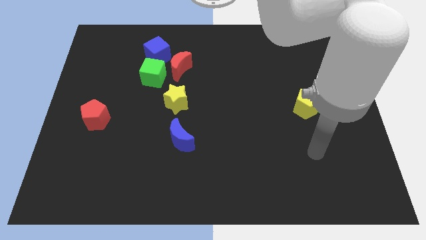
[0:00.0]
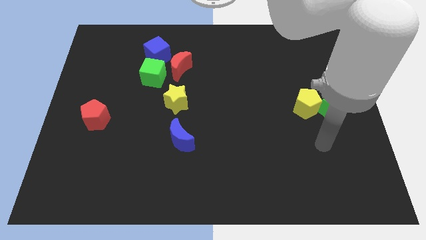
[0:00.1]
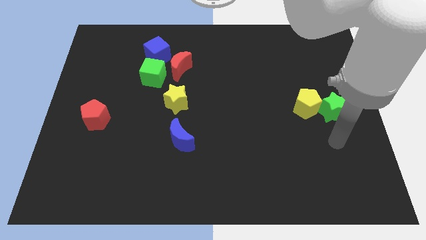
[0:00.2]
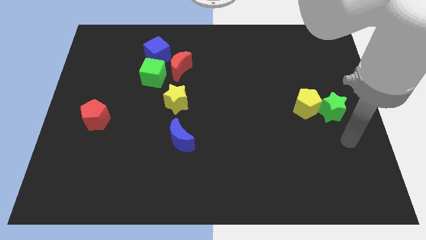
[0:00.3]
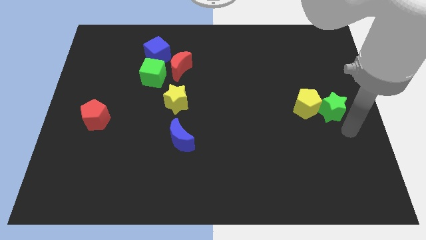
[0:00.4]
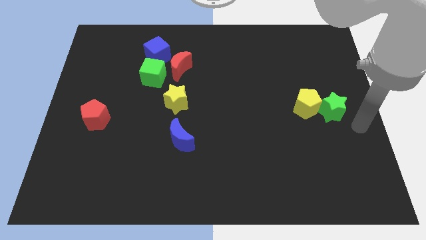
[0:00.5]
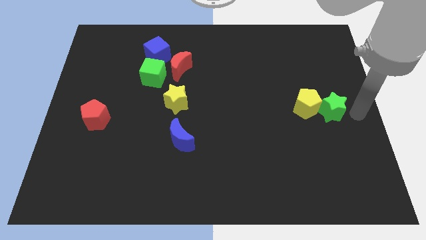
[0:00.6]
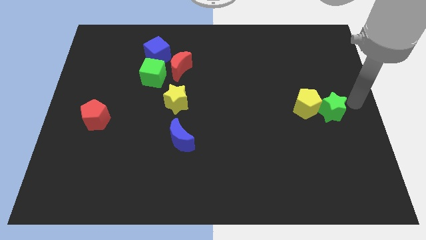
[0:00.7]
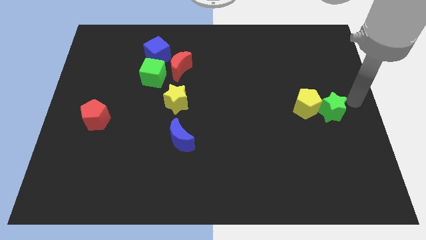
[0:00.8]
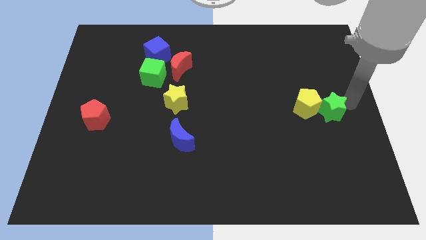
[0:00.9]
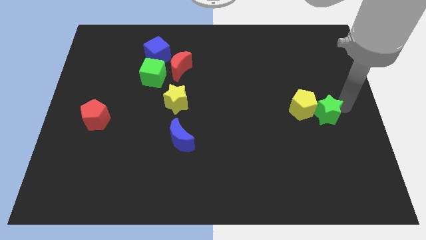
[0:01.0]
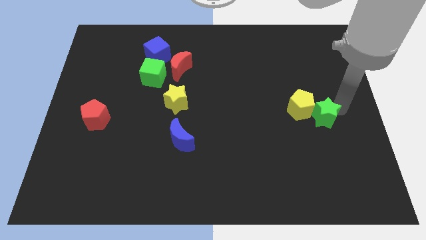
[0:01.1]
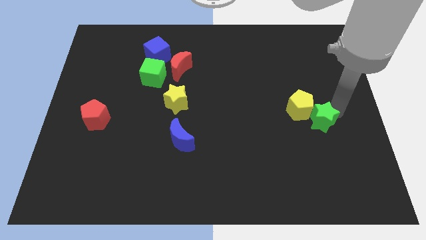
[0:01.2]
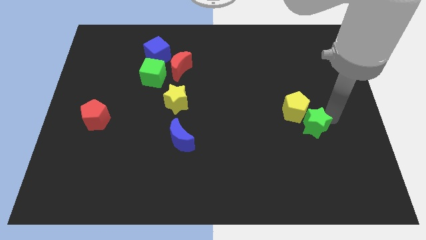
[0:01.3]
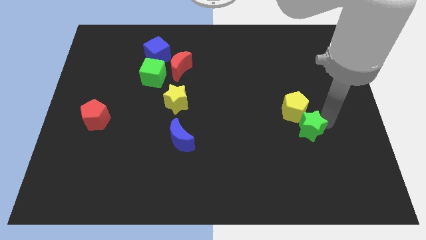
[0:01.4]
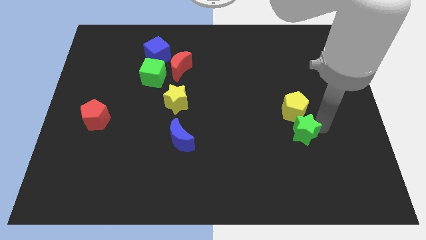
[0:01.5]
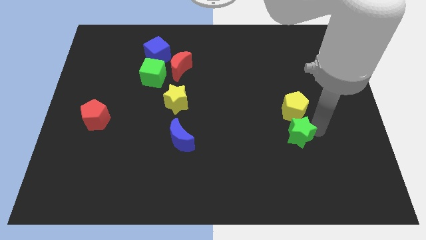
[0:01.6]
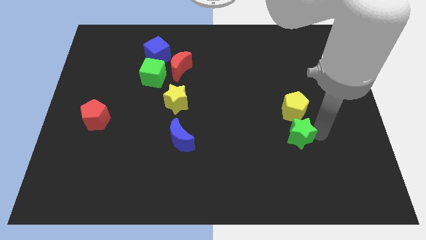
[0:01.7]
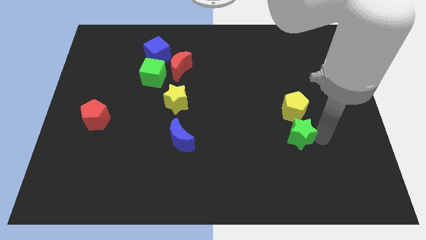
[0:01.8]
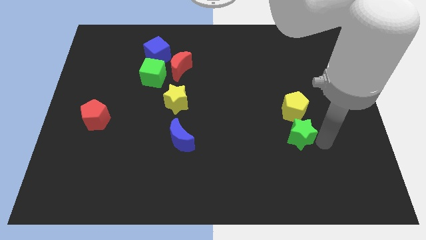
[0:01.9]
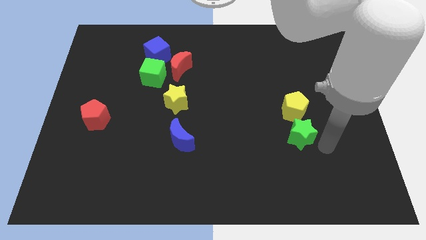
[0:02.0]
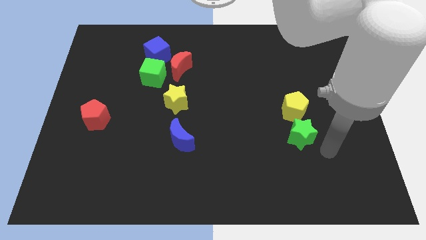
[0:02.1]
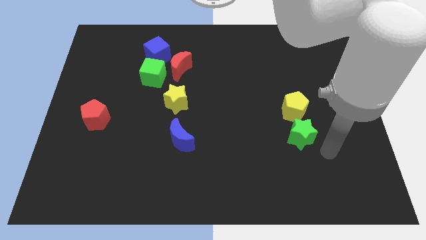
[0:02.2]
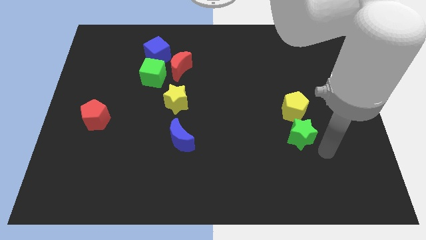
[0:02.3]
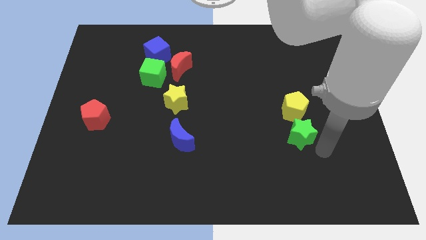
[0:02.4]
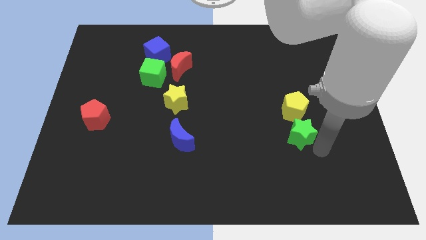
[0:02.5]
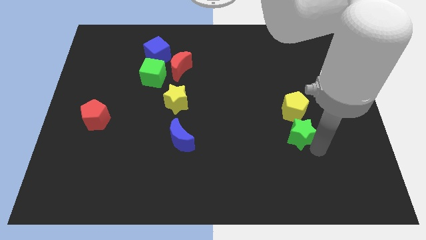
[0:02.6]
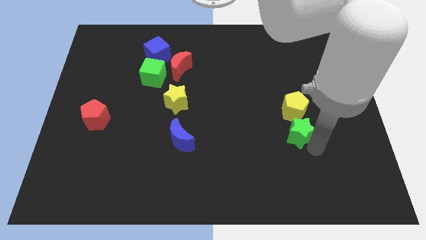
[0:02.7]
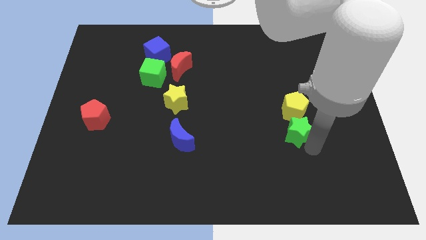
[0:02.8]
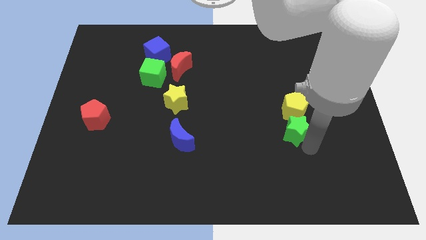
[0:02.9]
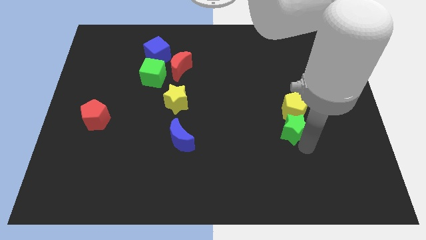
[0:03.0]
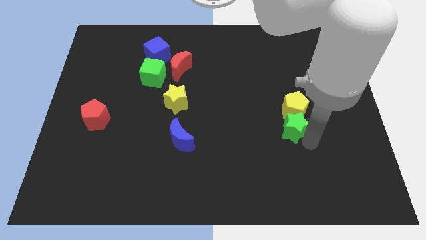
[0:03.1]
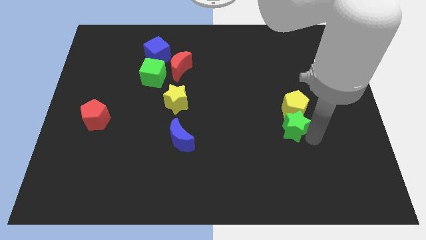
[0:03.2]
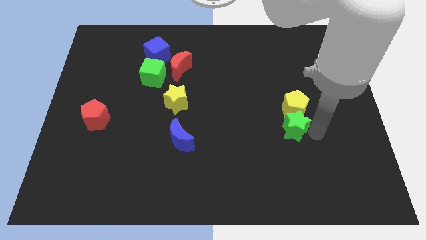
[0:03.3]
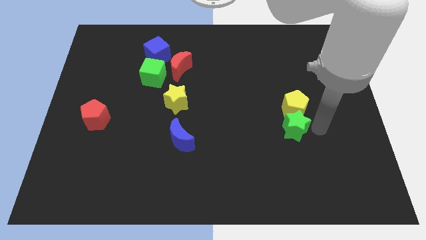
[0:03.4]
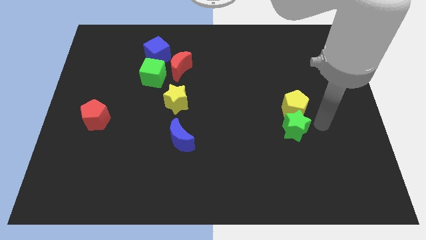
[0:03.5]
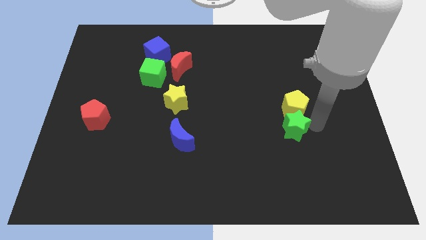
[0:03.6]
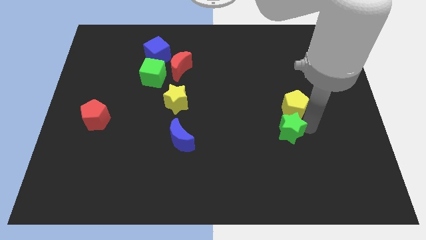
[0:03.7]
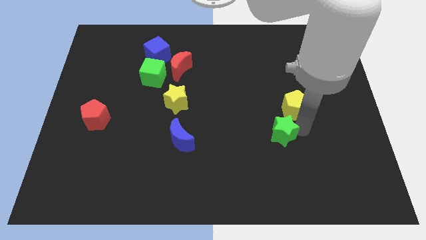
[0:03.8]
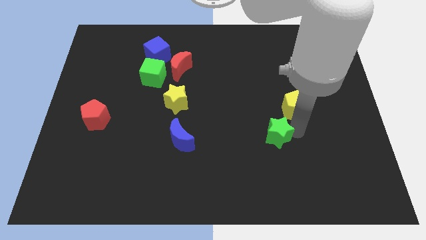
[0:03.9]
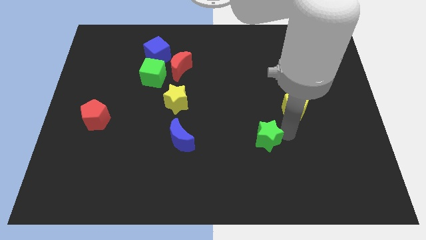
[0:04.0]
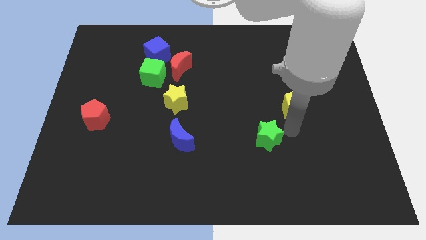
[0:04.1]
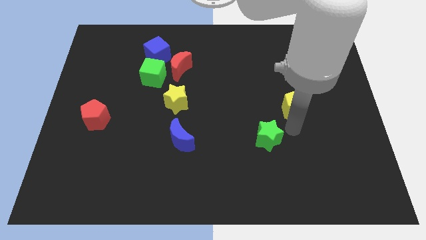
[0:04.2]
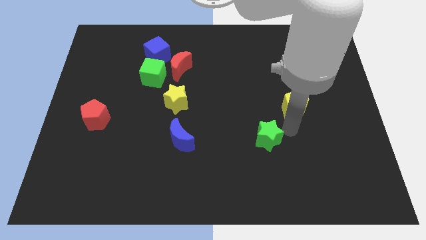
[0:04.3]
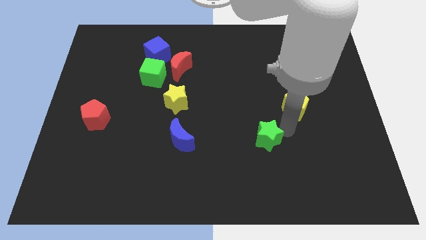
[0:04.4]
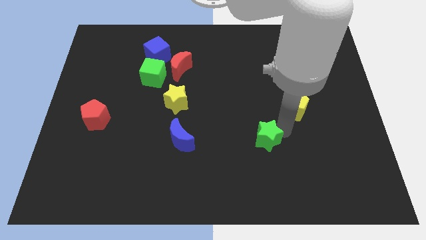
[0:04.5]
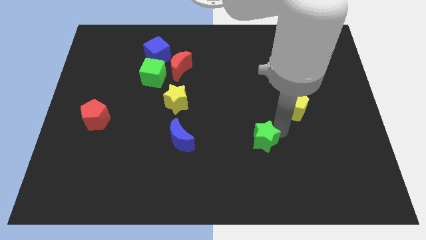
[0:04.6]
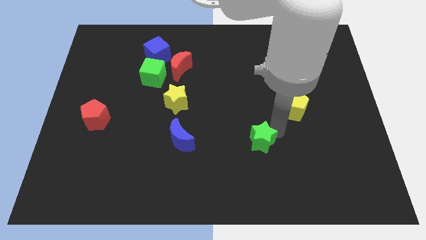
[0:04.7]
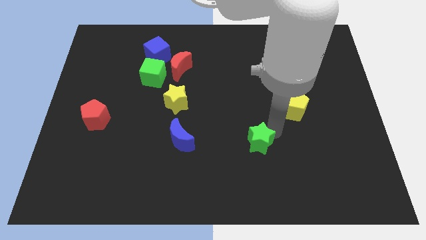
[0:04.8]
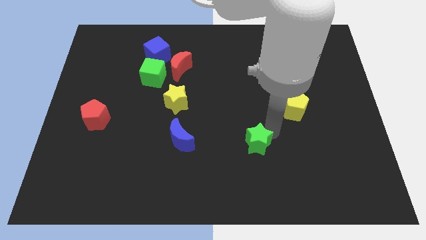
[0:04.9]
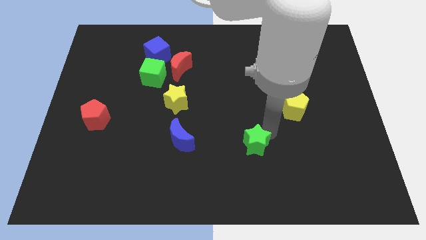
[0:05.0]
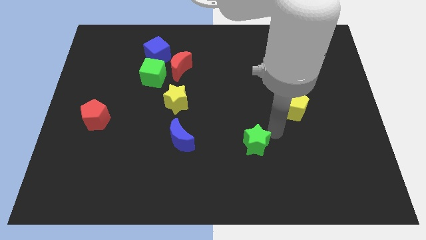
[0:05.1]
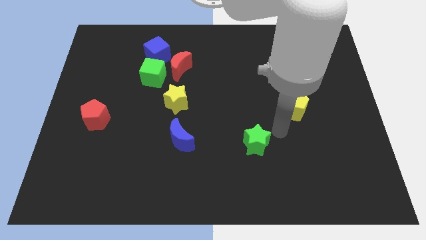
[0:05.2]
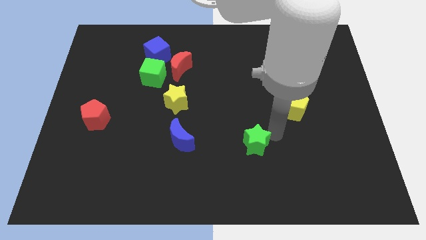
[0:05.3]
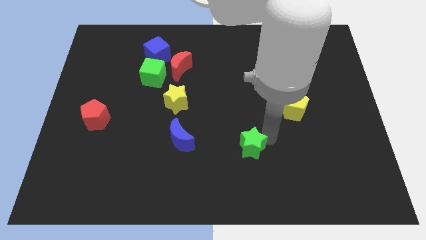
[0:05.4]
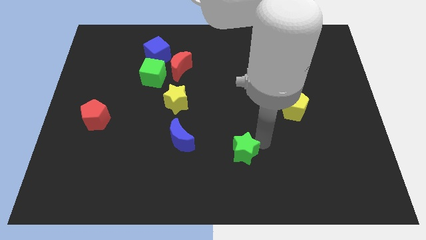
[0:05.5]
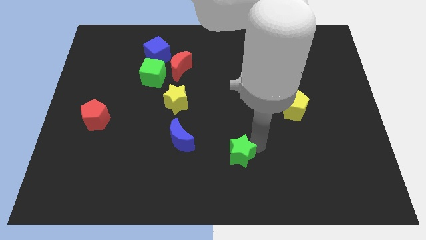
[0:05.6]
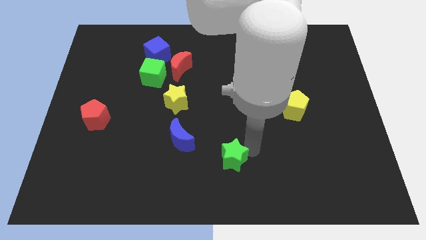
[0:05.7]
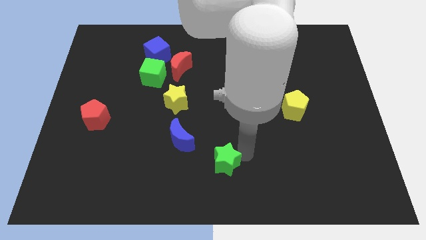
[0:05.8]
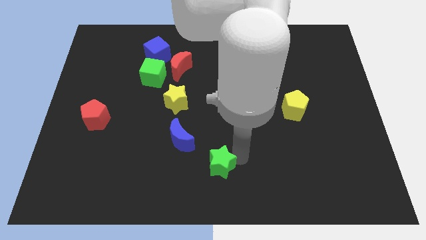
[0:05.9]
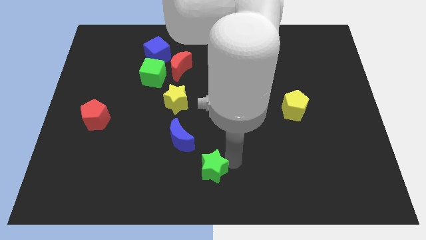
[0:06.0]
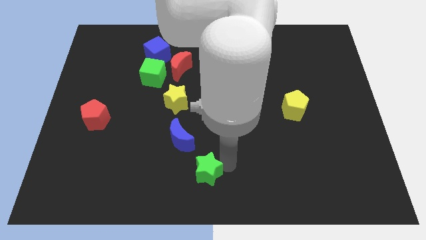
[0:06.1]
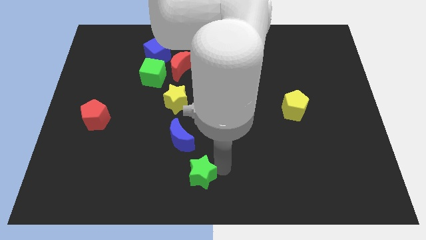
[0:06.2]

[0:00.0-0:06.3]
put the green star to the bottom of the blue moon

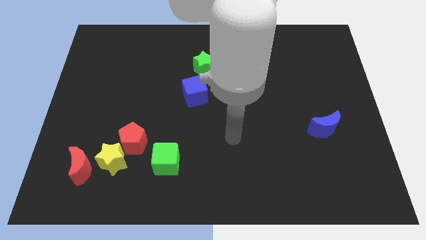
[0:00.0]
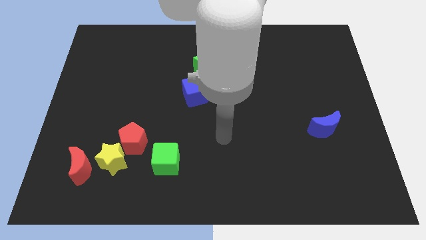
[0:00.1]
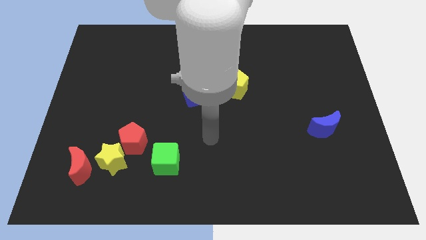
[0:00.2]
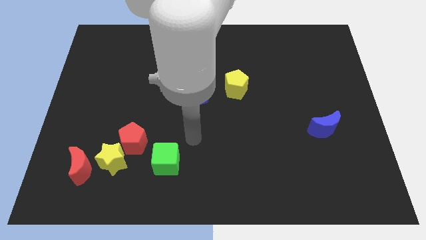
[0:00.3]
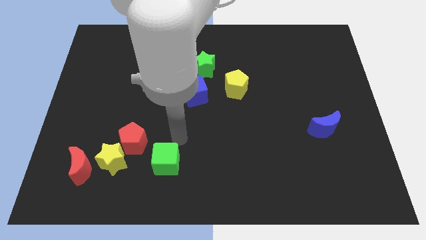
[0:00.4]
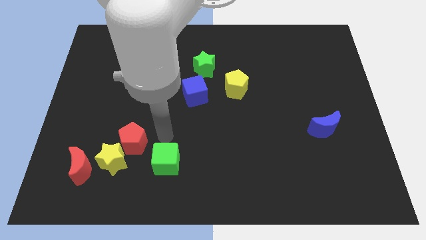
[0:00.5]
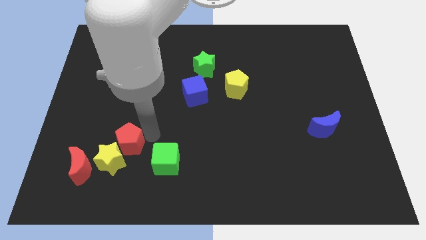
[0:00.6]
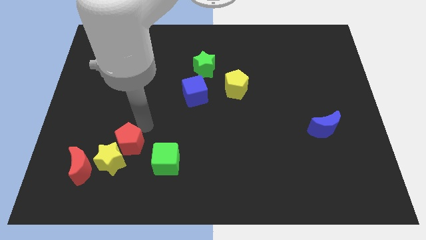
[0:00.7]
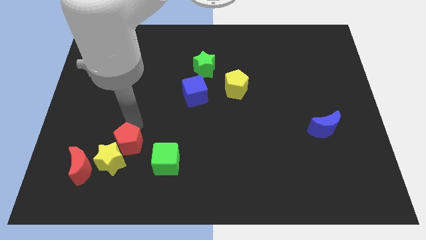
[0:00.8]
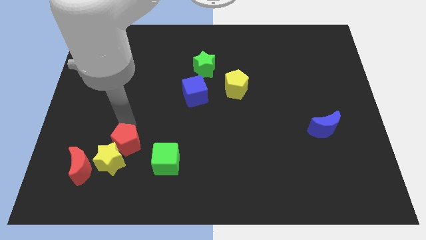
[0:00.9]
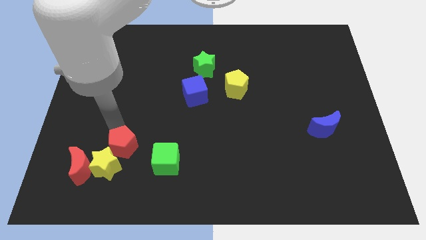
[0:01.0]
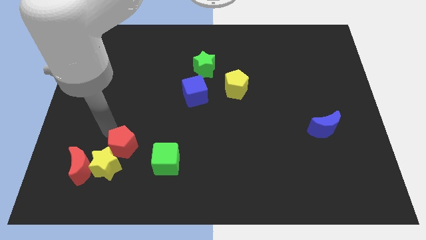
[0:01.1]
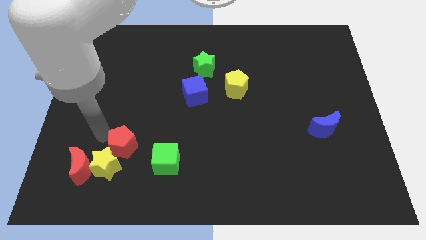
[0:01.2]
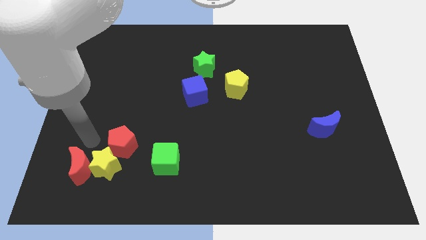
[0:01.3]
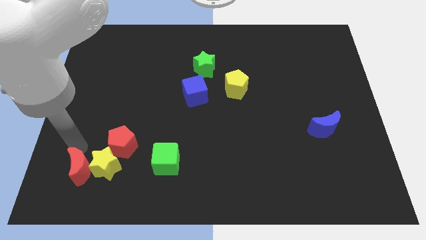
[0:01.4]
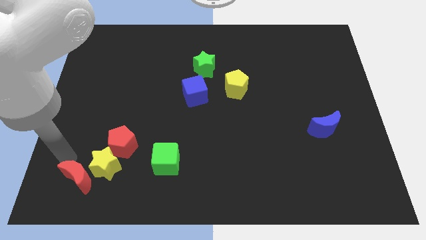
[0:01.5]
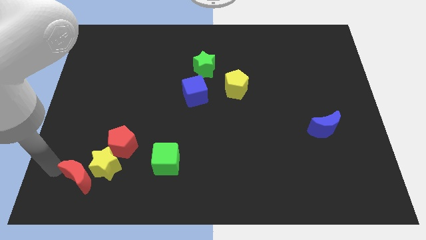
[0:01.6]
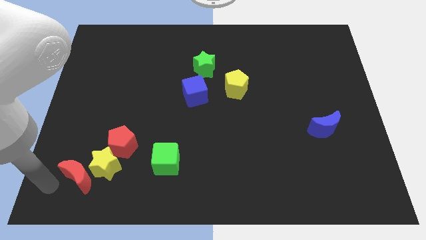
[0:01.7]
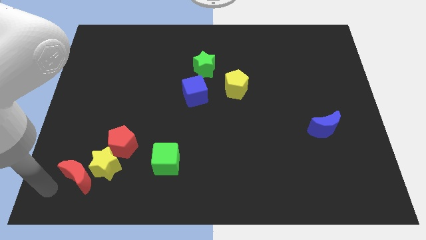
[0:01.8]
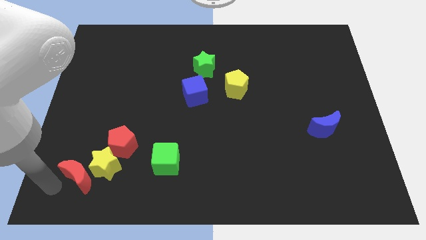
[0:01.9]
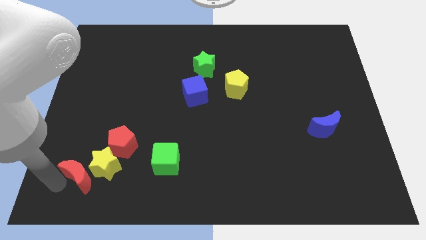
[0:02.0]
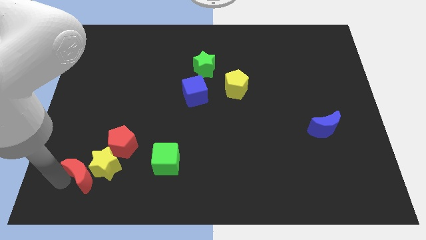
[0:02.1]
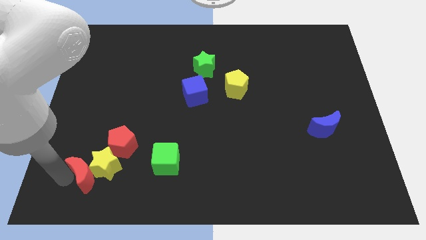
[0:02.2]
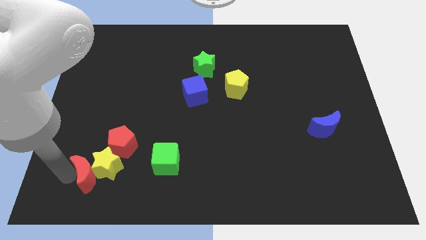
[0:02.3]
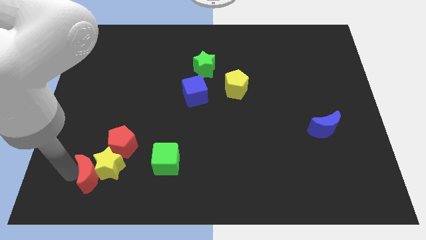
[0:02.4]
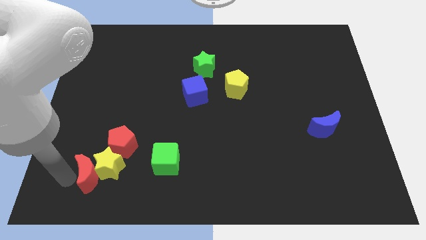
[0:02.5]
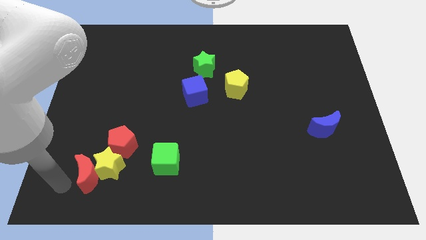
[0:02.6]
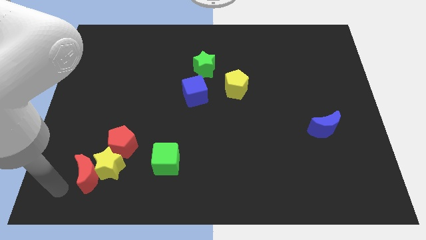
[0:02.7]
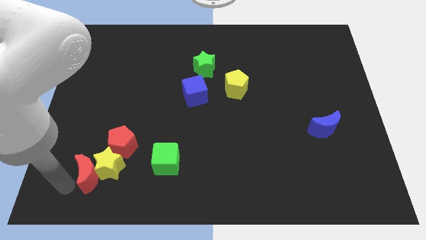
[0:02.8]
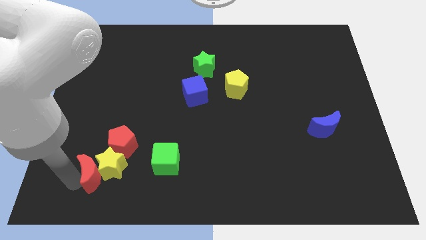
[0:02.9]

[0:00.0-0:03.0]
slide the red moon just left of the green cube
